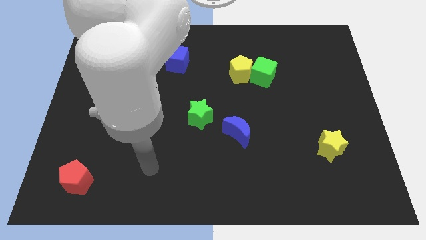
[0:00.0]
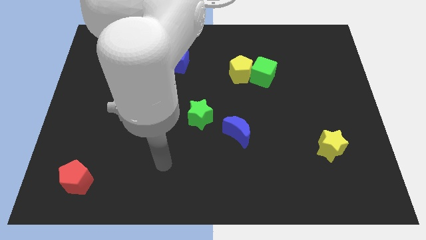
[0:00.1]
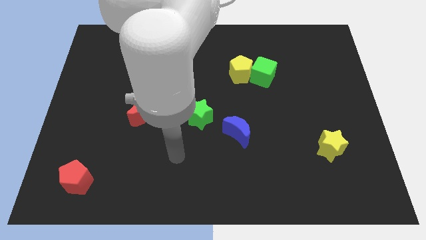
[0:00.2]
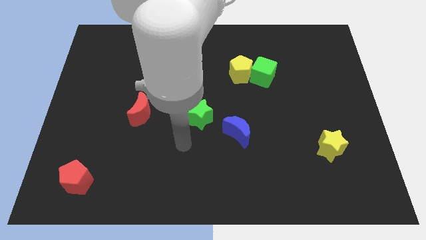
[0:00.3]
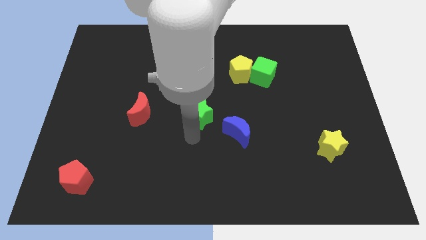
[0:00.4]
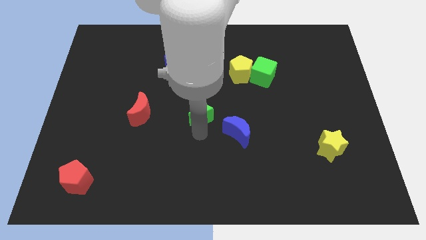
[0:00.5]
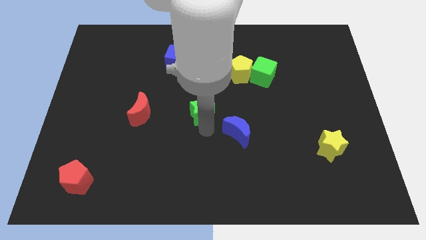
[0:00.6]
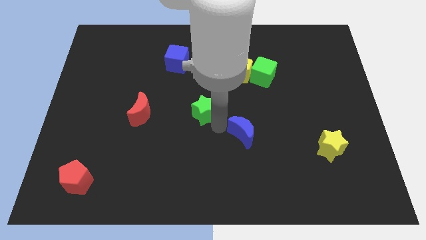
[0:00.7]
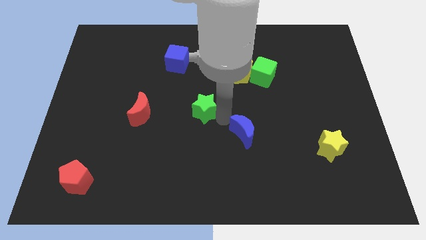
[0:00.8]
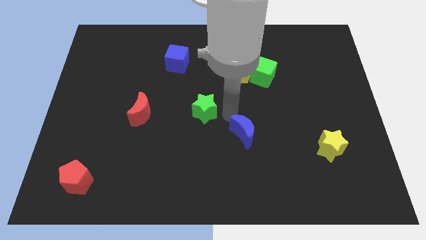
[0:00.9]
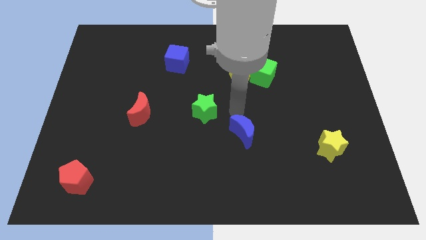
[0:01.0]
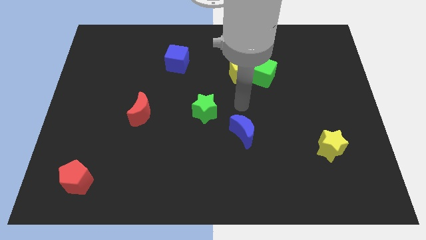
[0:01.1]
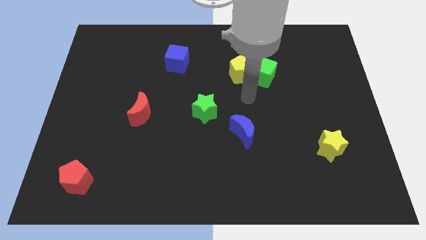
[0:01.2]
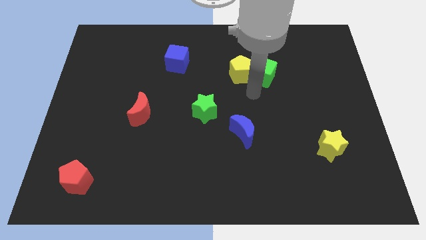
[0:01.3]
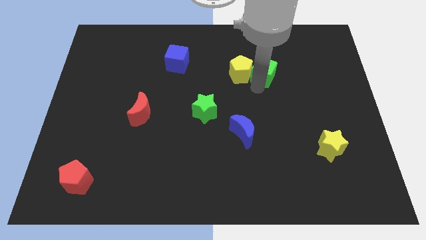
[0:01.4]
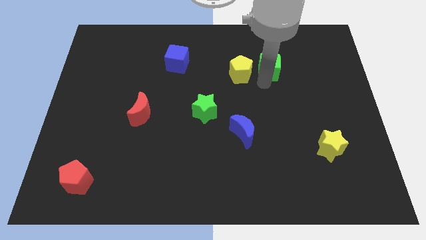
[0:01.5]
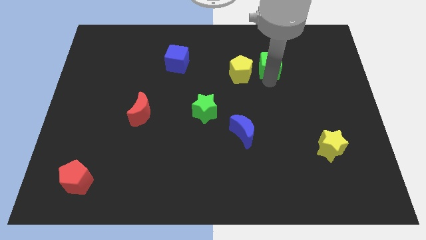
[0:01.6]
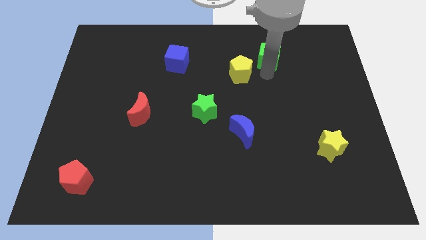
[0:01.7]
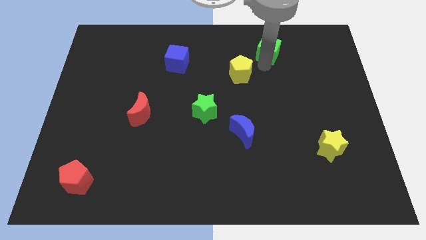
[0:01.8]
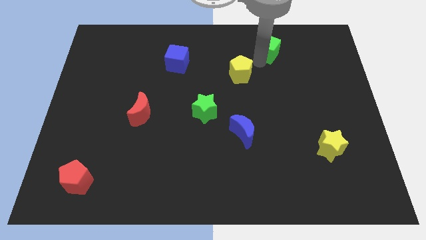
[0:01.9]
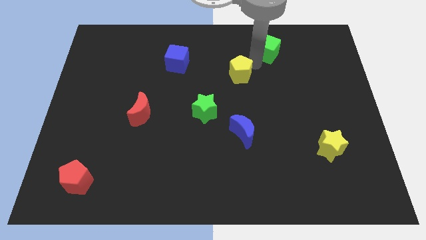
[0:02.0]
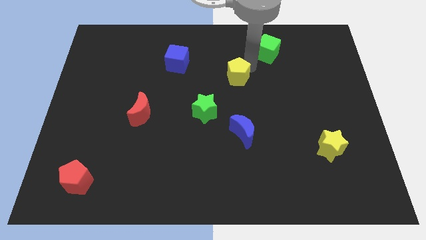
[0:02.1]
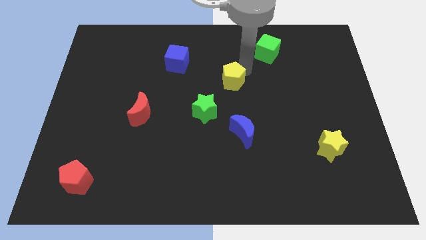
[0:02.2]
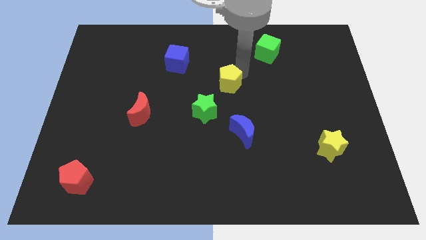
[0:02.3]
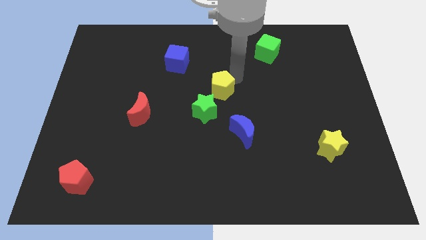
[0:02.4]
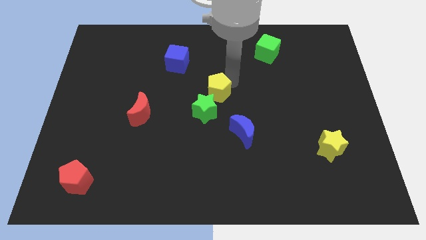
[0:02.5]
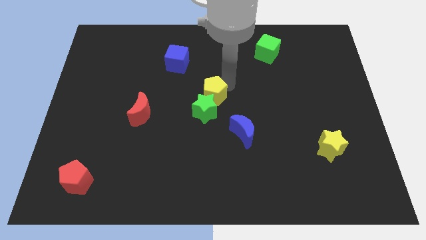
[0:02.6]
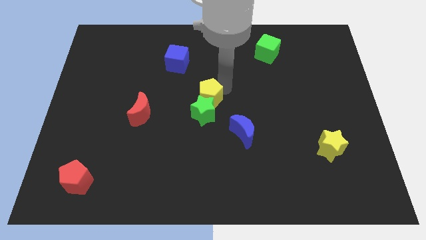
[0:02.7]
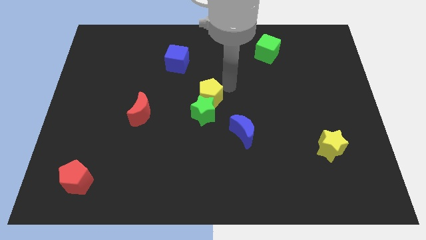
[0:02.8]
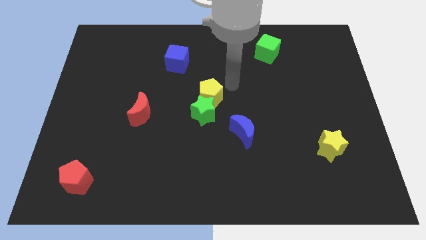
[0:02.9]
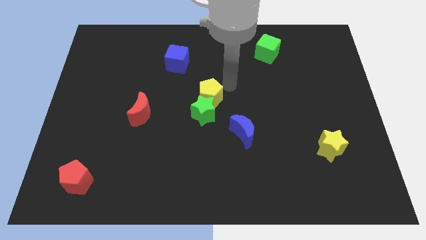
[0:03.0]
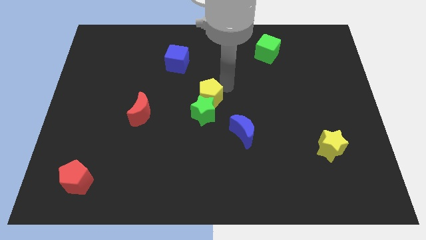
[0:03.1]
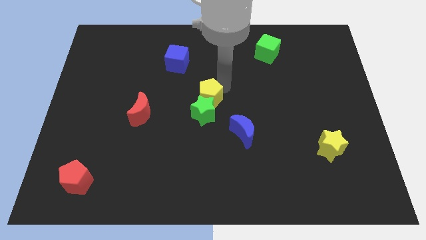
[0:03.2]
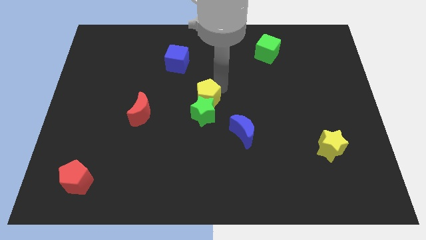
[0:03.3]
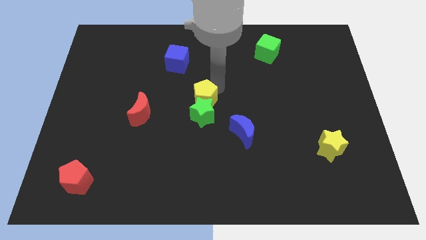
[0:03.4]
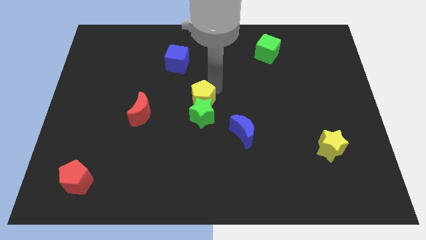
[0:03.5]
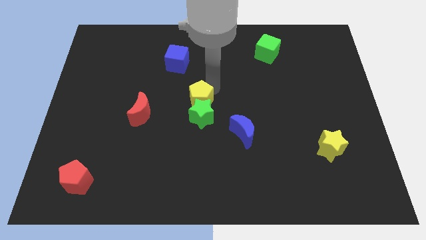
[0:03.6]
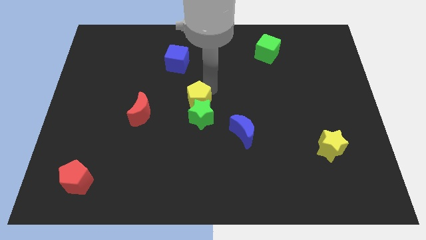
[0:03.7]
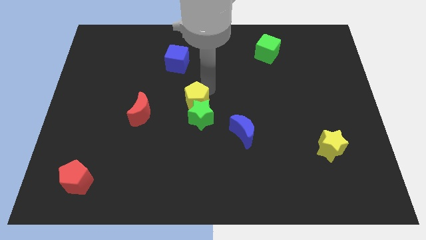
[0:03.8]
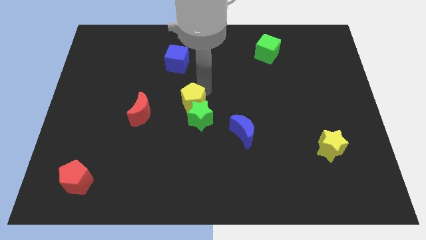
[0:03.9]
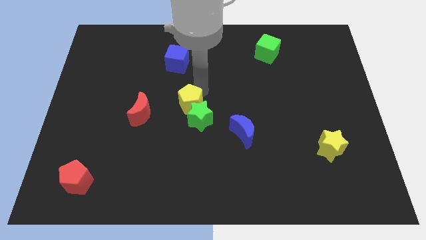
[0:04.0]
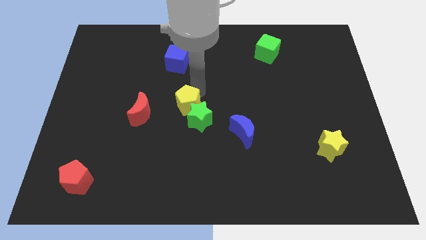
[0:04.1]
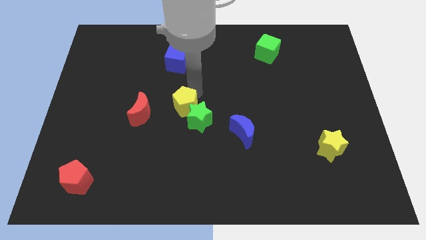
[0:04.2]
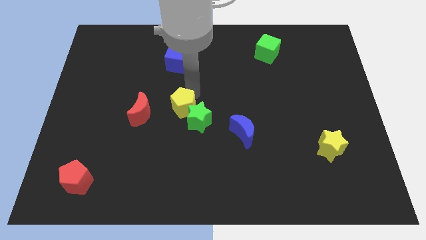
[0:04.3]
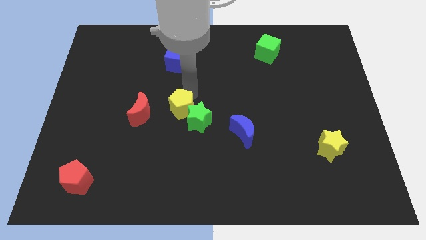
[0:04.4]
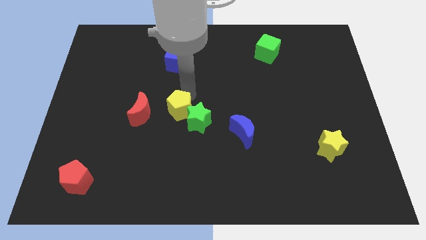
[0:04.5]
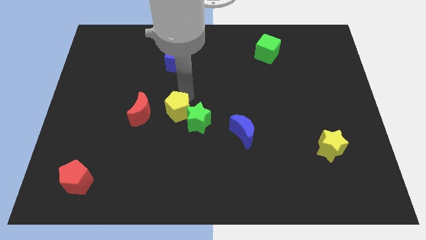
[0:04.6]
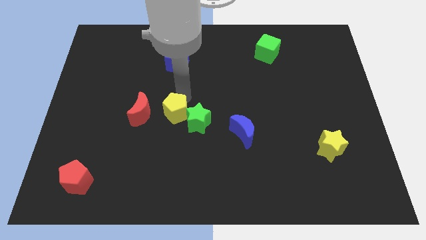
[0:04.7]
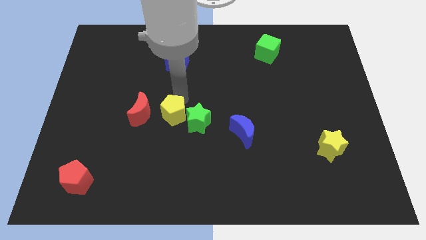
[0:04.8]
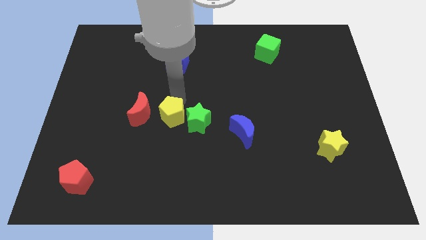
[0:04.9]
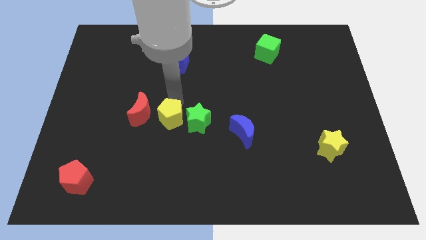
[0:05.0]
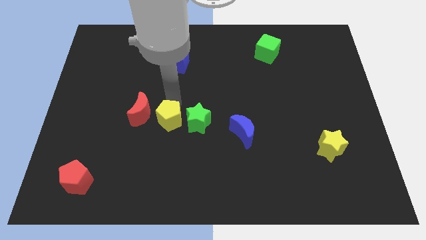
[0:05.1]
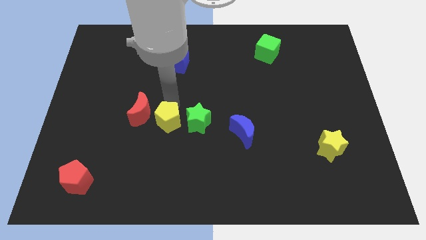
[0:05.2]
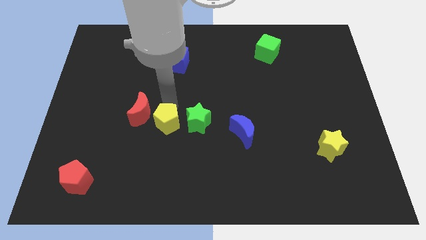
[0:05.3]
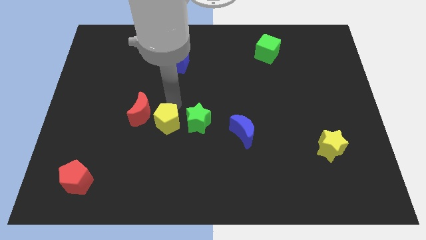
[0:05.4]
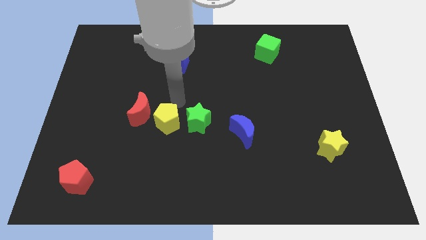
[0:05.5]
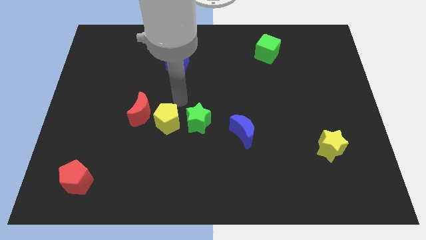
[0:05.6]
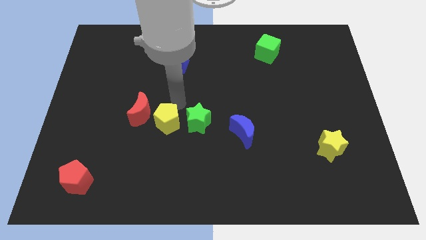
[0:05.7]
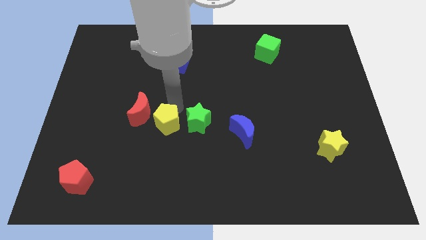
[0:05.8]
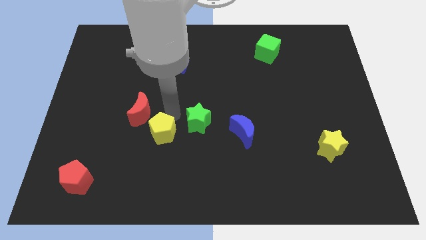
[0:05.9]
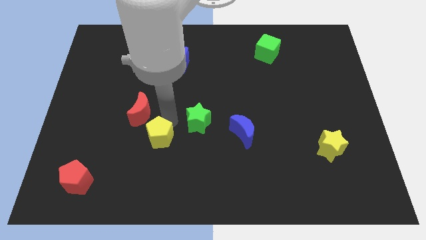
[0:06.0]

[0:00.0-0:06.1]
slide the yellow pentagon to the bottom of the red moon

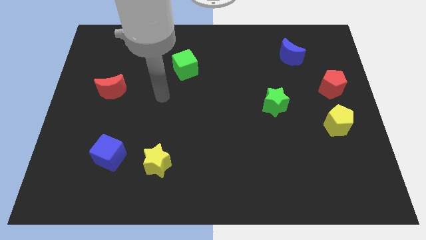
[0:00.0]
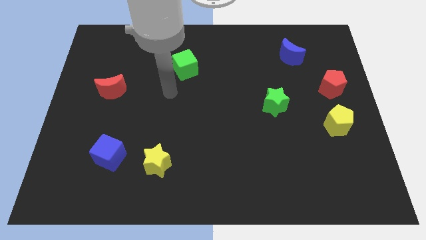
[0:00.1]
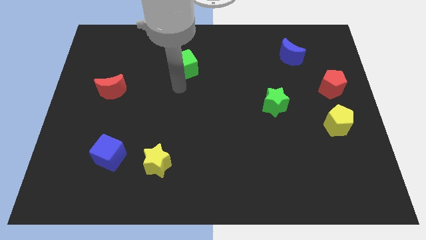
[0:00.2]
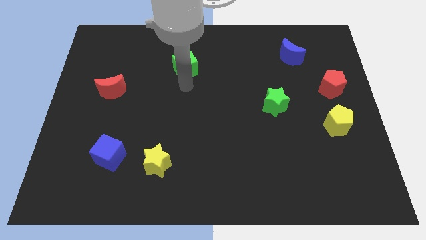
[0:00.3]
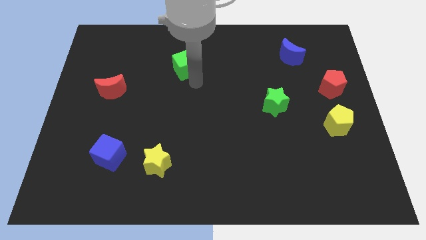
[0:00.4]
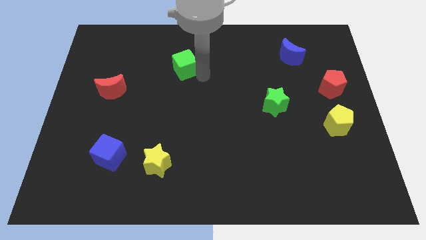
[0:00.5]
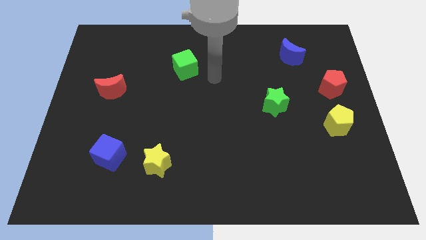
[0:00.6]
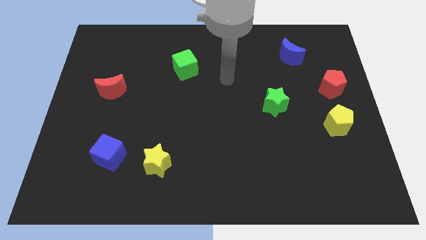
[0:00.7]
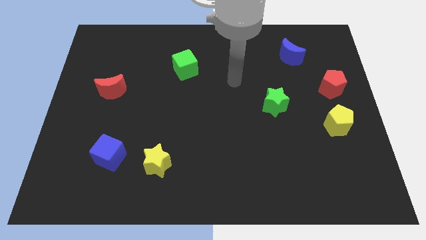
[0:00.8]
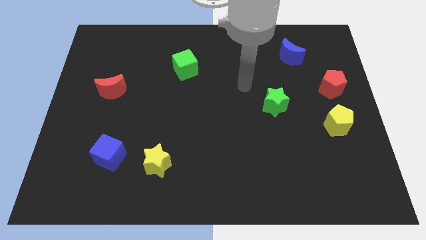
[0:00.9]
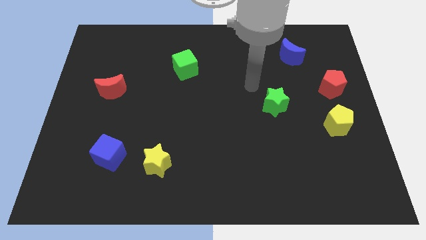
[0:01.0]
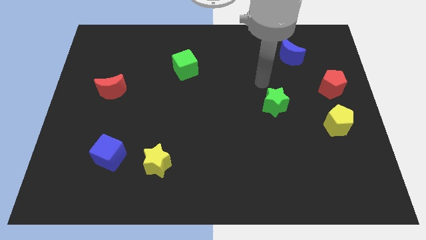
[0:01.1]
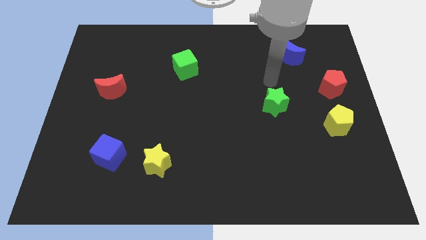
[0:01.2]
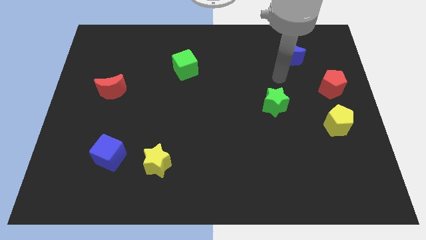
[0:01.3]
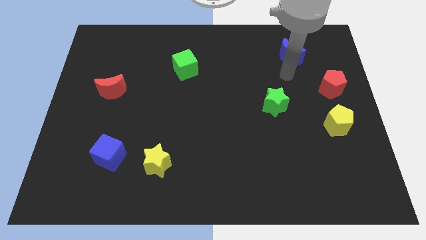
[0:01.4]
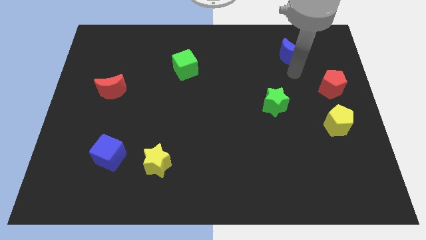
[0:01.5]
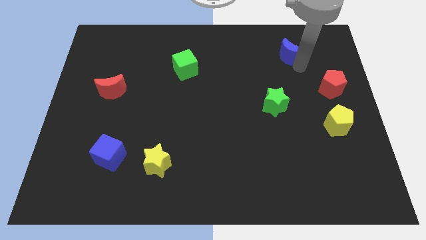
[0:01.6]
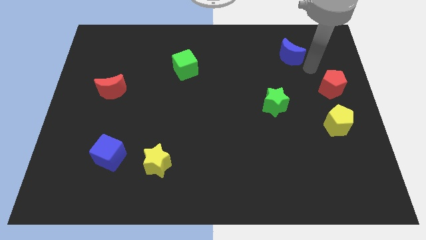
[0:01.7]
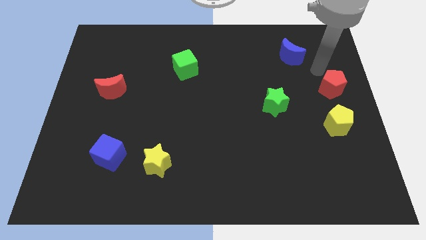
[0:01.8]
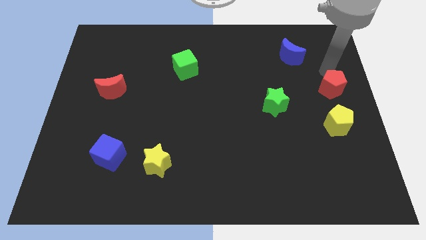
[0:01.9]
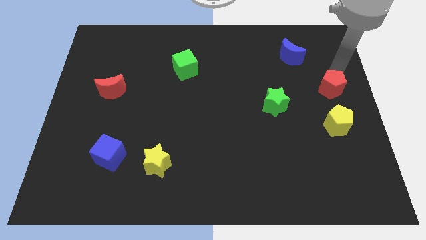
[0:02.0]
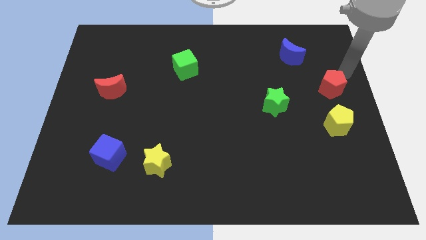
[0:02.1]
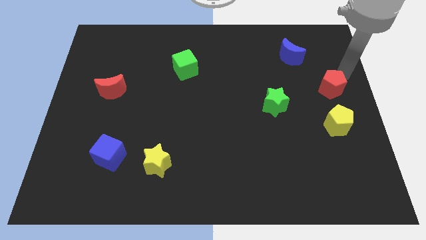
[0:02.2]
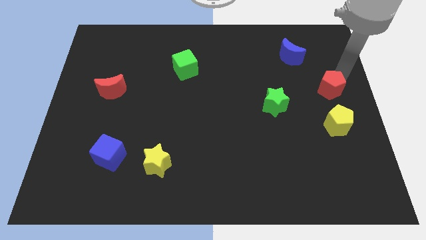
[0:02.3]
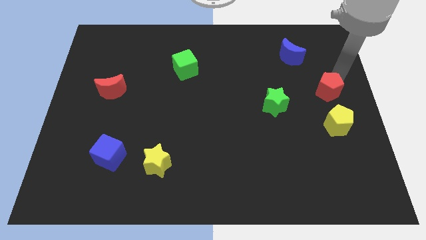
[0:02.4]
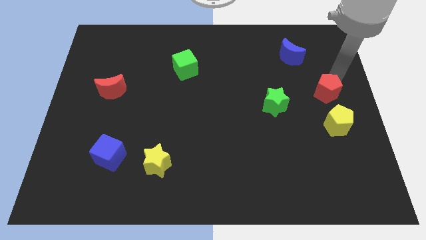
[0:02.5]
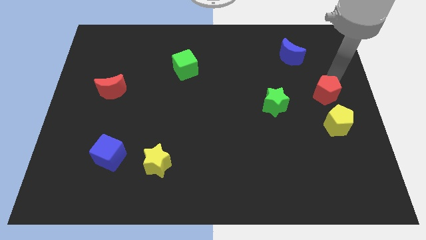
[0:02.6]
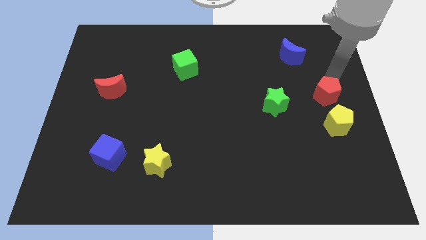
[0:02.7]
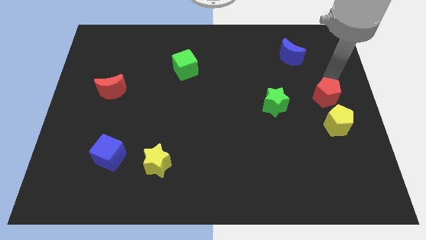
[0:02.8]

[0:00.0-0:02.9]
move the red pentagon diagonally up and to the left of the yellow pentagon
